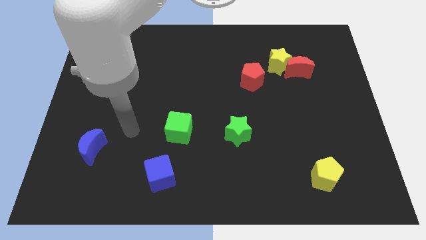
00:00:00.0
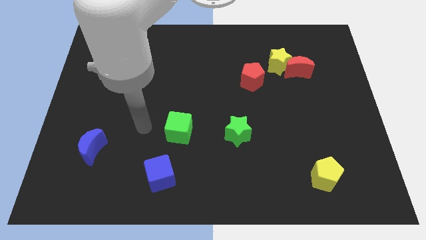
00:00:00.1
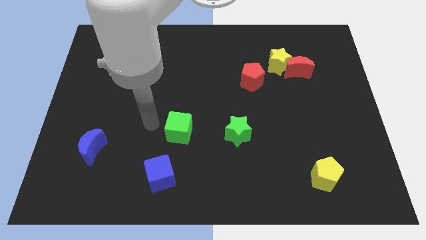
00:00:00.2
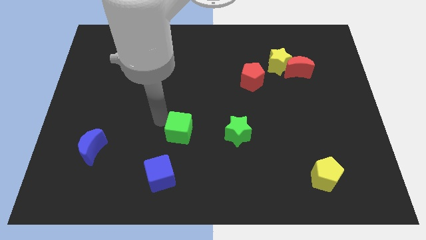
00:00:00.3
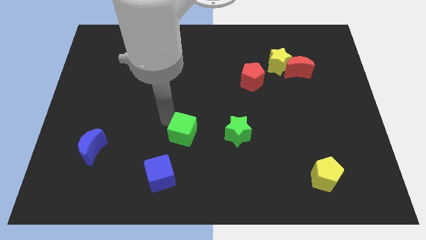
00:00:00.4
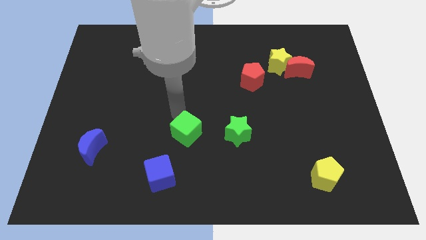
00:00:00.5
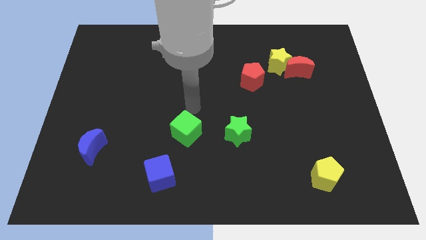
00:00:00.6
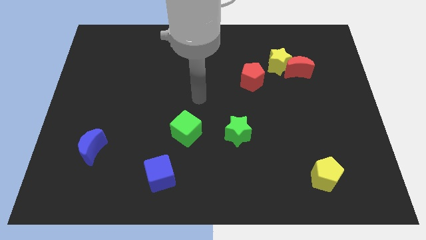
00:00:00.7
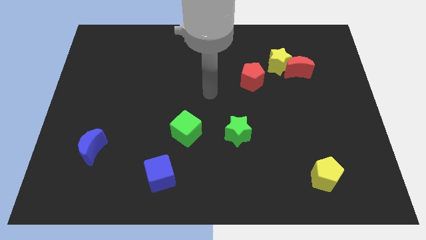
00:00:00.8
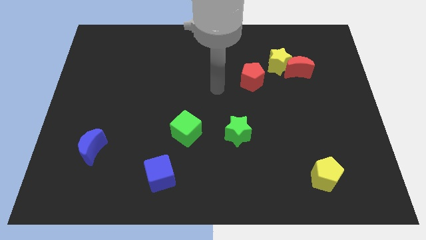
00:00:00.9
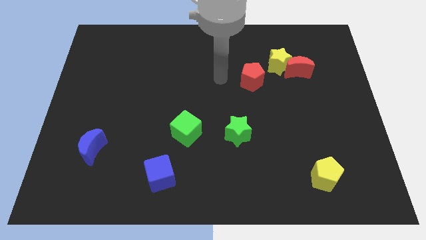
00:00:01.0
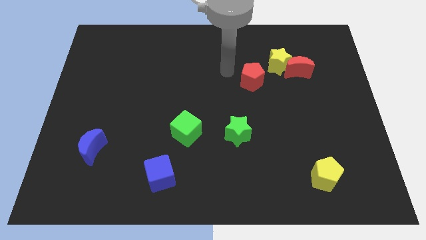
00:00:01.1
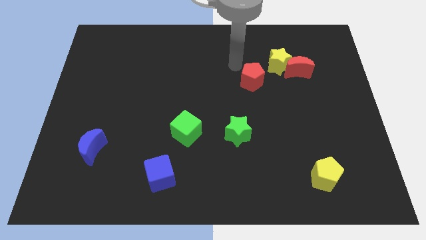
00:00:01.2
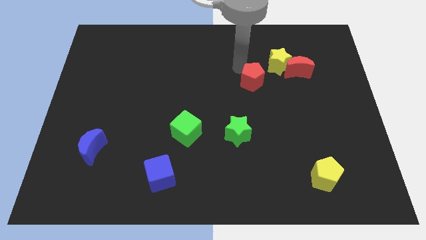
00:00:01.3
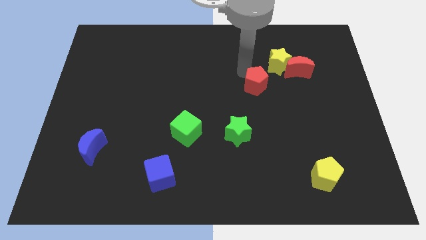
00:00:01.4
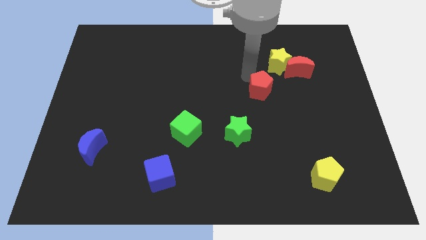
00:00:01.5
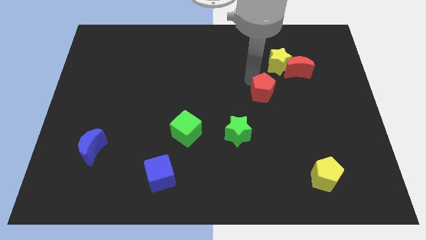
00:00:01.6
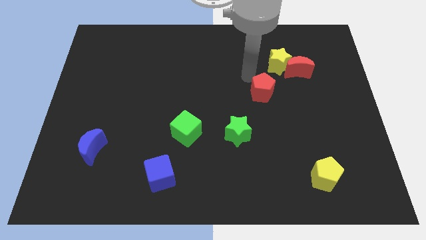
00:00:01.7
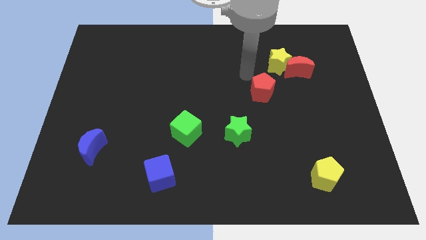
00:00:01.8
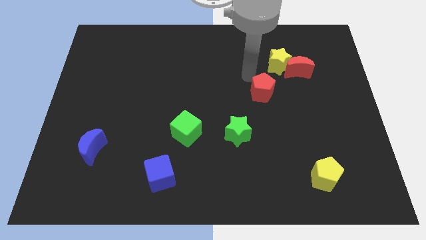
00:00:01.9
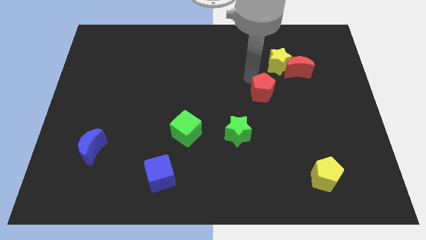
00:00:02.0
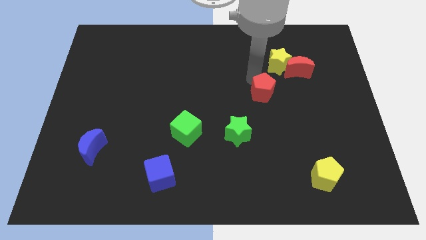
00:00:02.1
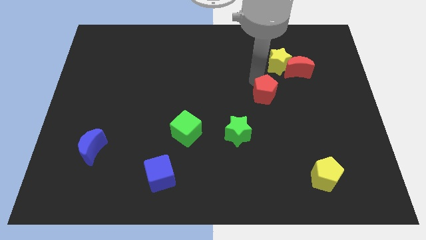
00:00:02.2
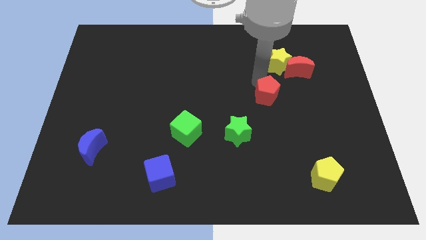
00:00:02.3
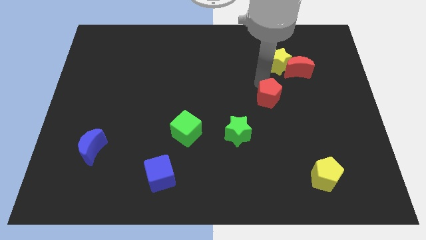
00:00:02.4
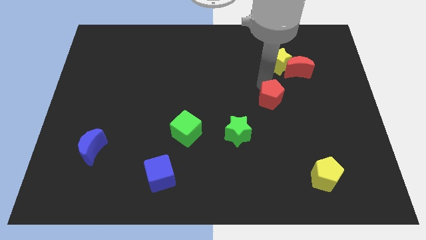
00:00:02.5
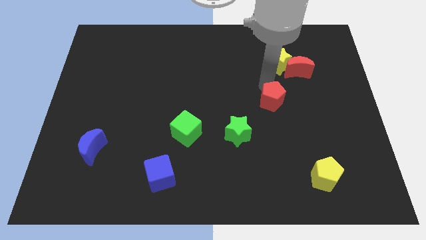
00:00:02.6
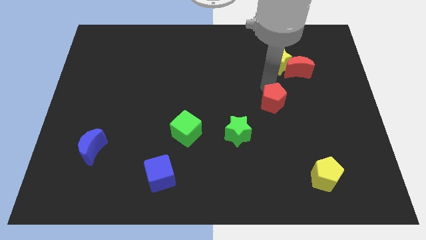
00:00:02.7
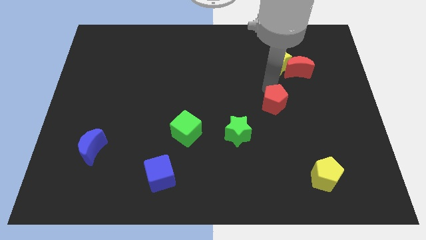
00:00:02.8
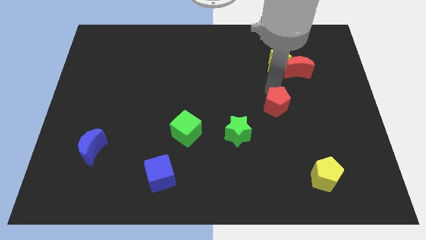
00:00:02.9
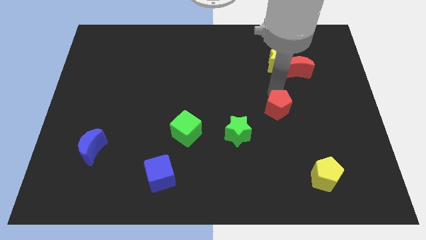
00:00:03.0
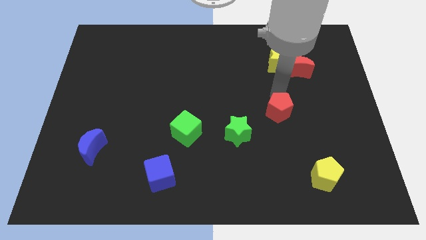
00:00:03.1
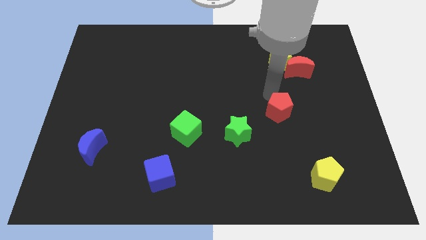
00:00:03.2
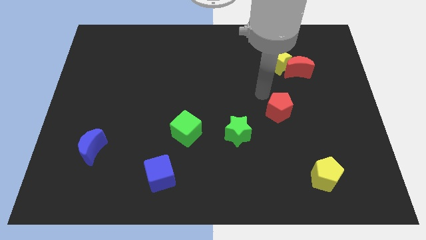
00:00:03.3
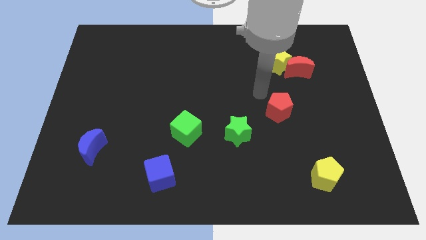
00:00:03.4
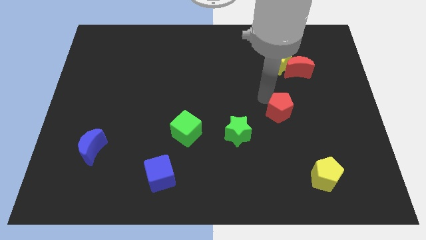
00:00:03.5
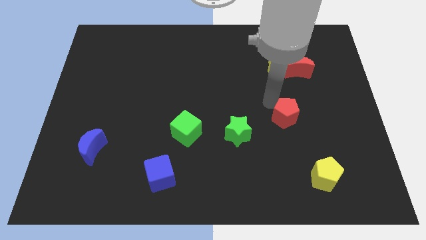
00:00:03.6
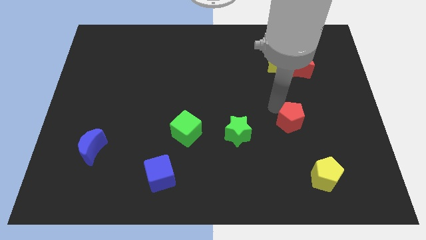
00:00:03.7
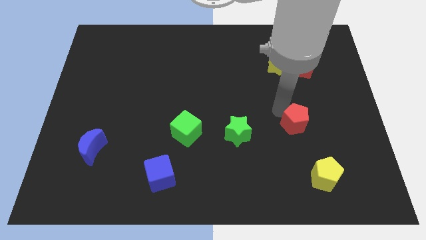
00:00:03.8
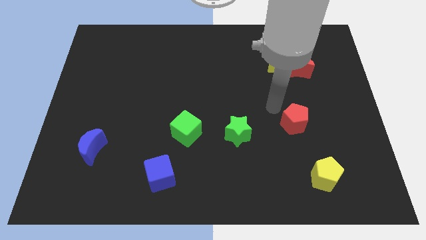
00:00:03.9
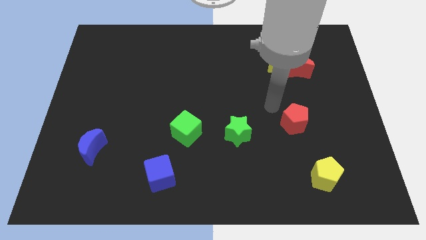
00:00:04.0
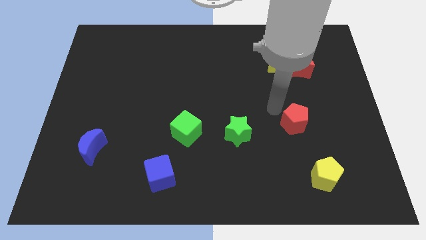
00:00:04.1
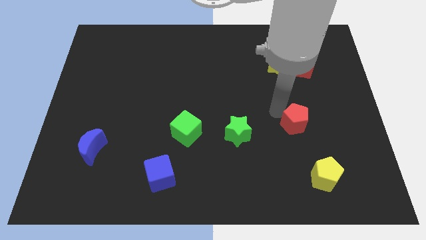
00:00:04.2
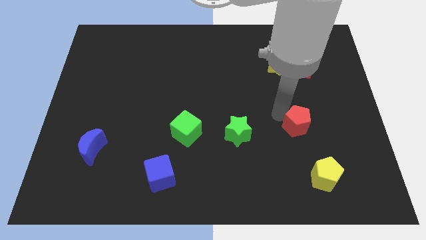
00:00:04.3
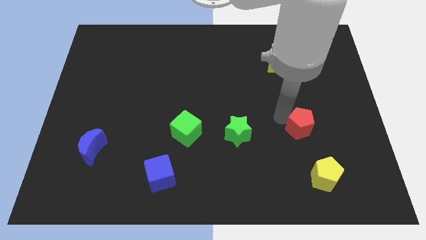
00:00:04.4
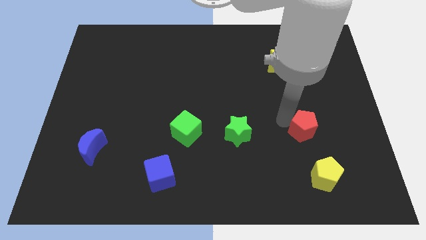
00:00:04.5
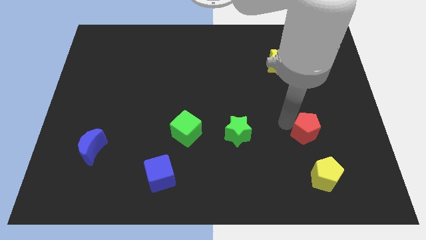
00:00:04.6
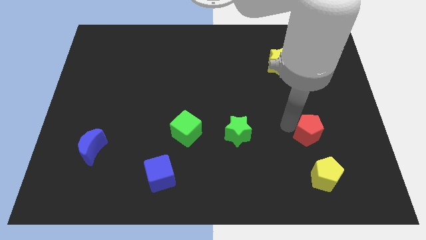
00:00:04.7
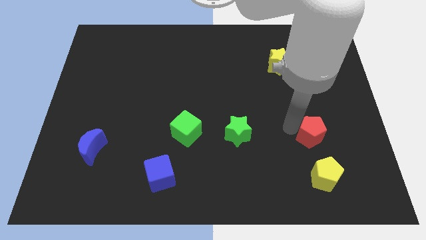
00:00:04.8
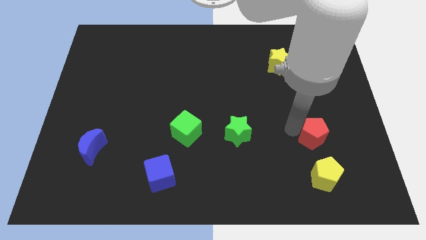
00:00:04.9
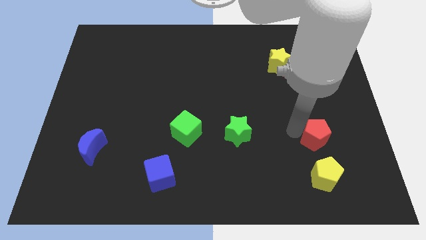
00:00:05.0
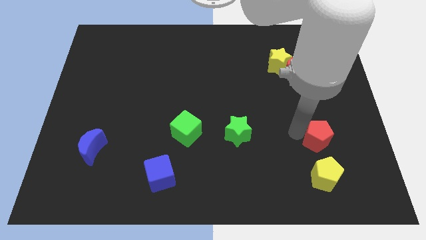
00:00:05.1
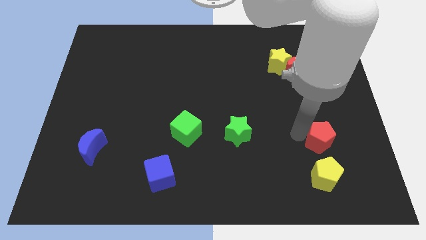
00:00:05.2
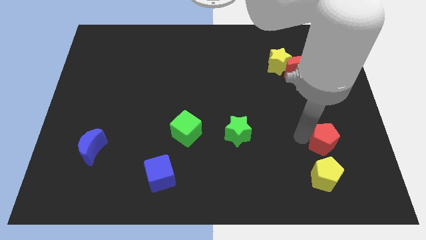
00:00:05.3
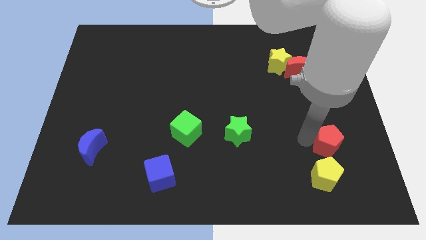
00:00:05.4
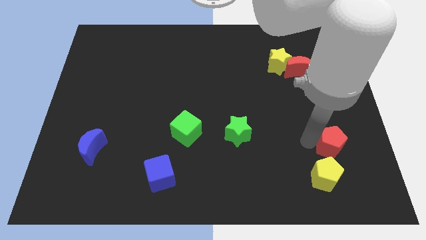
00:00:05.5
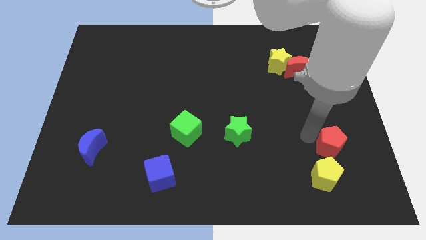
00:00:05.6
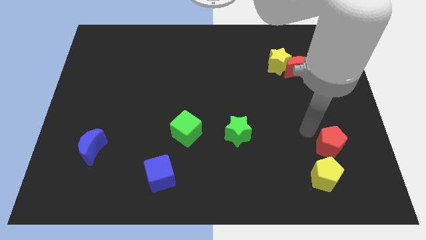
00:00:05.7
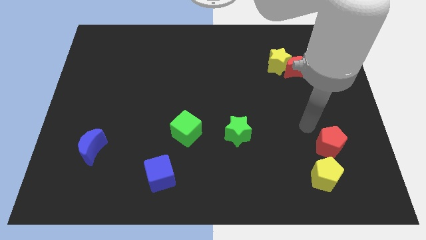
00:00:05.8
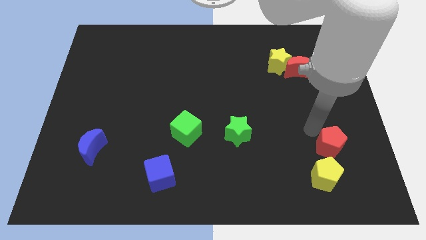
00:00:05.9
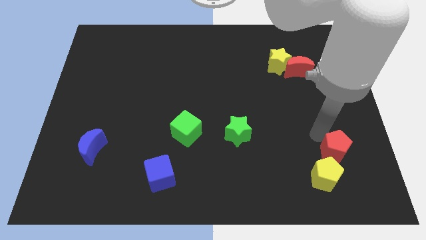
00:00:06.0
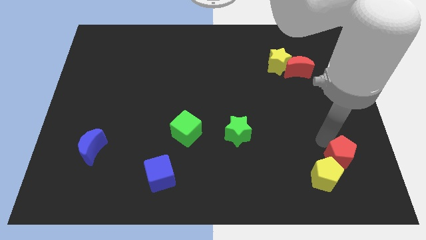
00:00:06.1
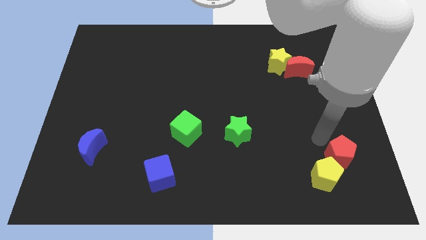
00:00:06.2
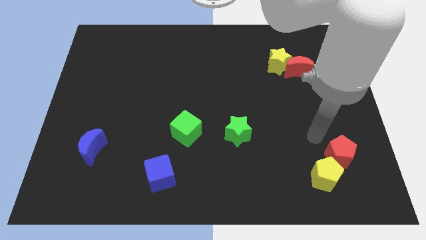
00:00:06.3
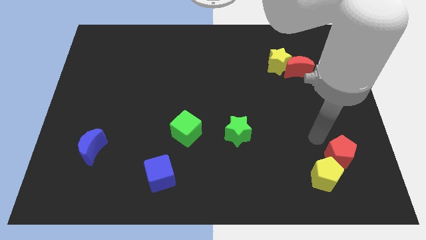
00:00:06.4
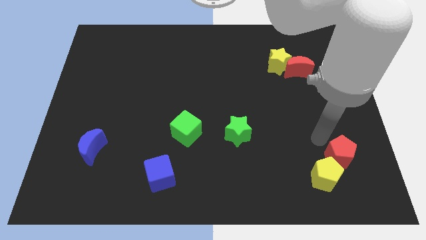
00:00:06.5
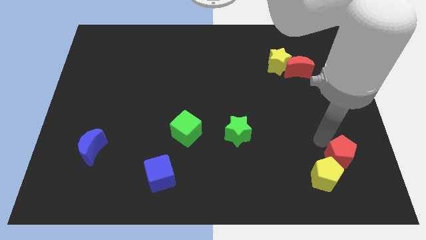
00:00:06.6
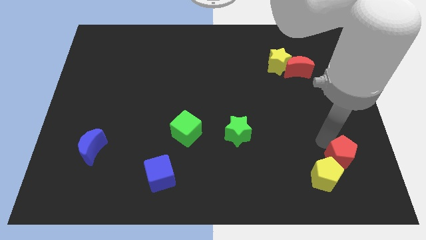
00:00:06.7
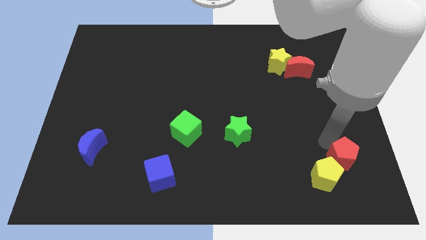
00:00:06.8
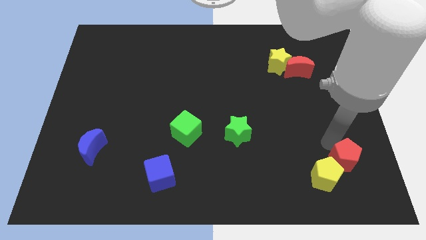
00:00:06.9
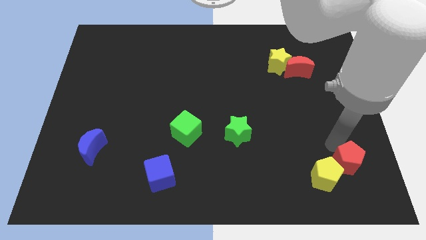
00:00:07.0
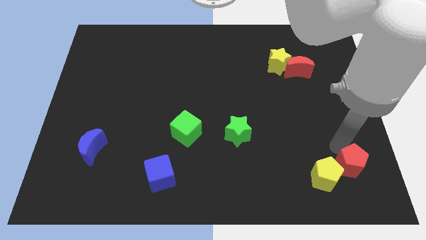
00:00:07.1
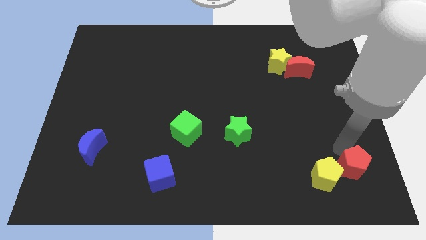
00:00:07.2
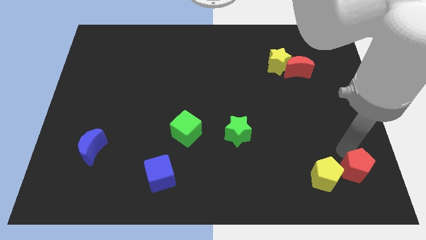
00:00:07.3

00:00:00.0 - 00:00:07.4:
put the red pentagon to the bottom right corner
